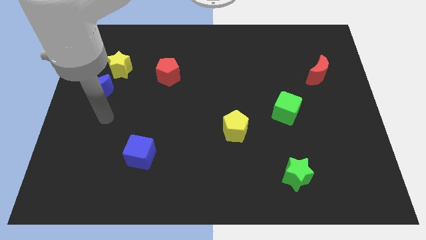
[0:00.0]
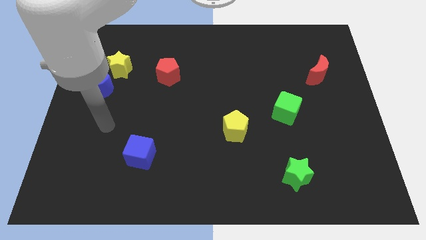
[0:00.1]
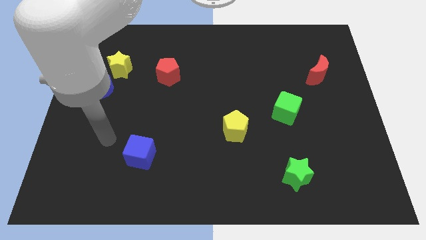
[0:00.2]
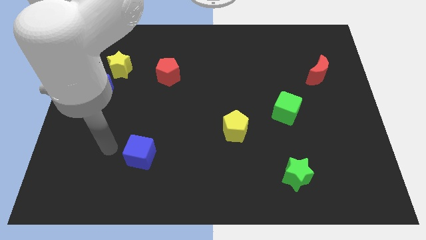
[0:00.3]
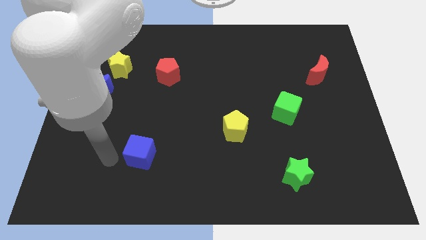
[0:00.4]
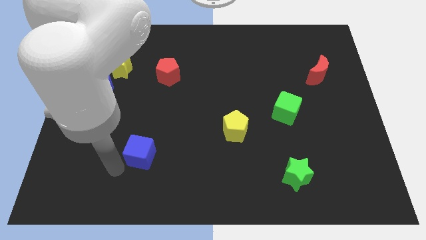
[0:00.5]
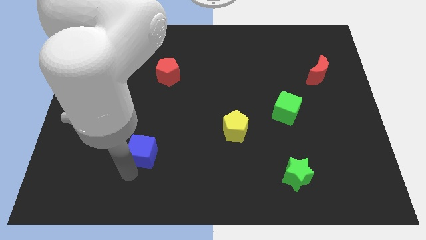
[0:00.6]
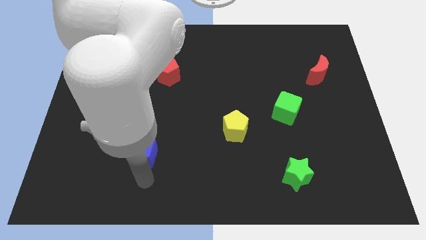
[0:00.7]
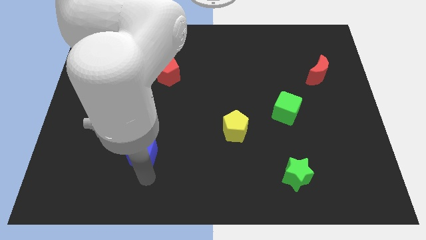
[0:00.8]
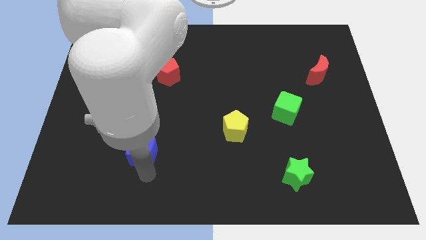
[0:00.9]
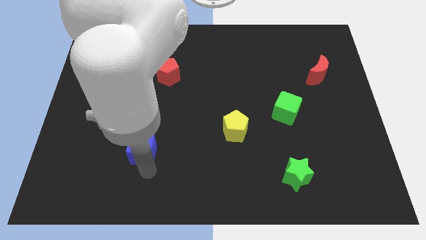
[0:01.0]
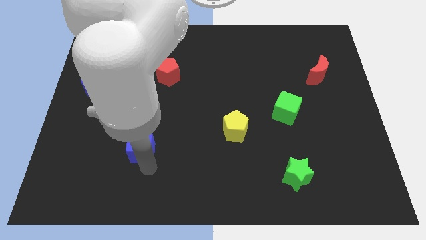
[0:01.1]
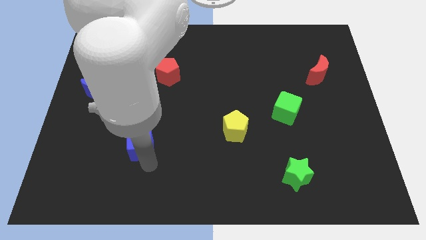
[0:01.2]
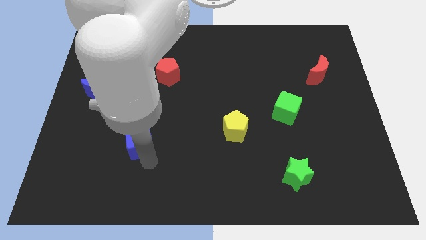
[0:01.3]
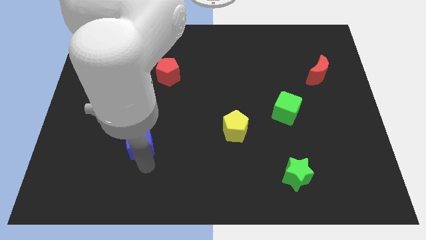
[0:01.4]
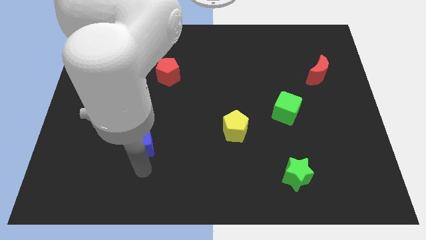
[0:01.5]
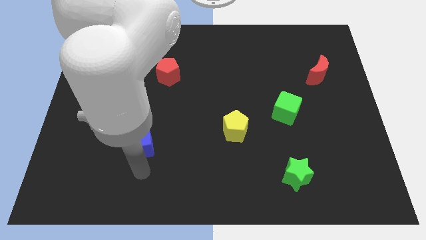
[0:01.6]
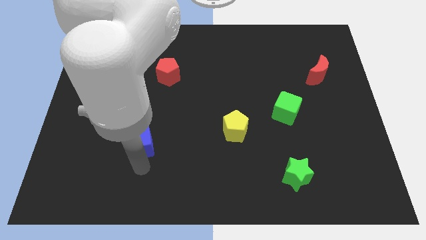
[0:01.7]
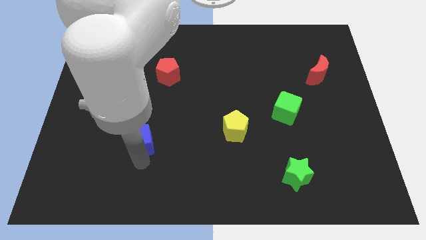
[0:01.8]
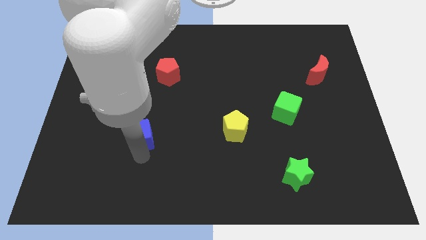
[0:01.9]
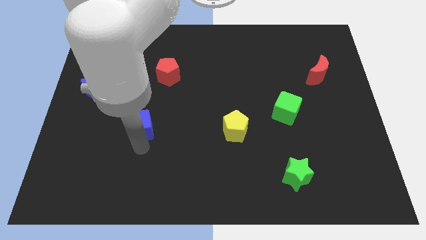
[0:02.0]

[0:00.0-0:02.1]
slide the blue cube up somewhat

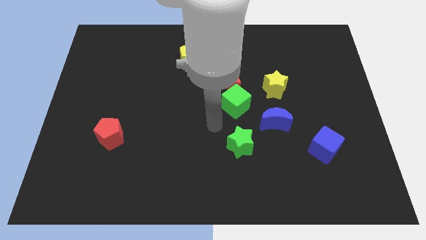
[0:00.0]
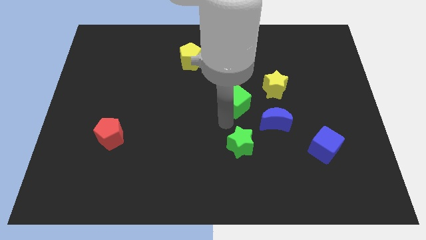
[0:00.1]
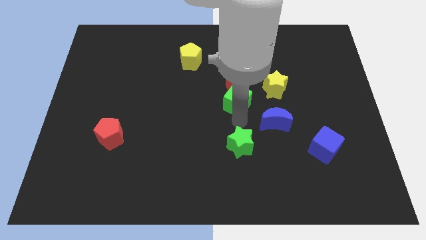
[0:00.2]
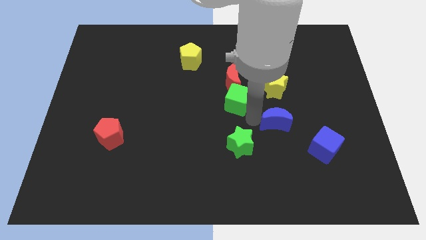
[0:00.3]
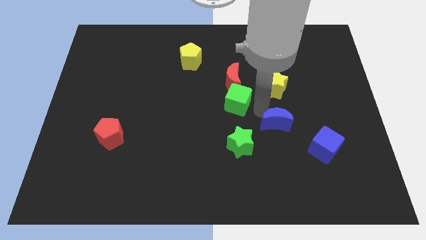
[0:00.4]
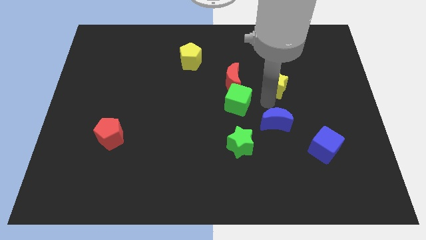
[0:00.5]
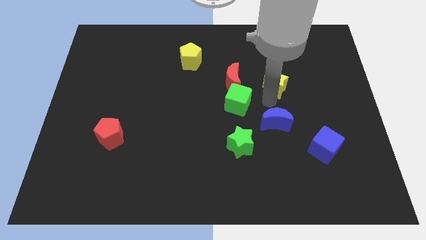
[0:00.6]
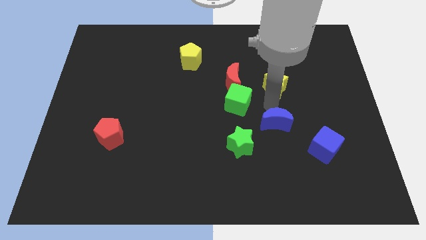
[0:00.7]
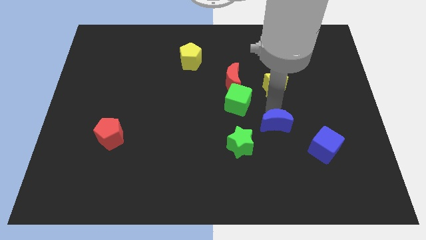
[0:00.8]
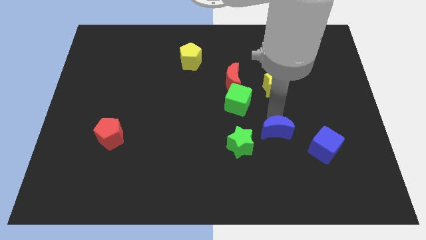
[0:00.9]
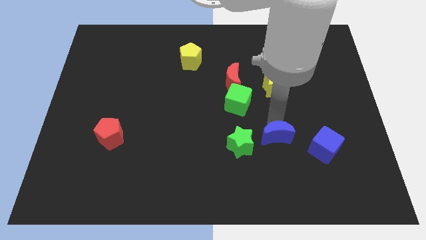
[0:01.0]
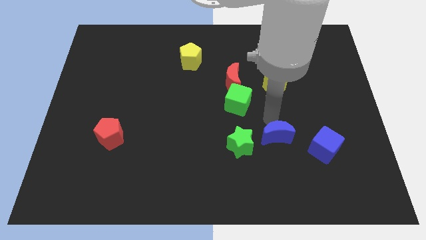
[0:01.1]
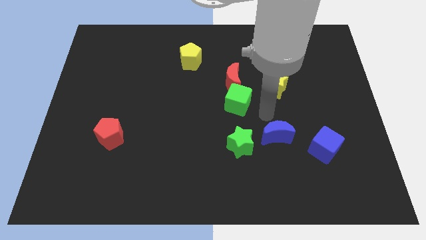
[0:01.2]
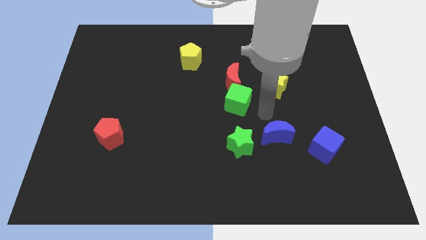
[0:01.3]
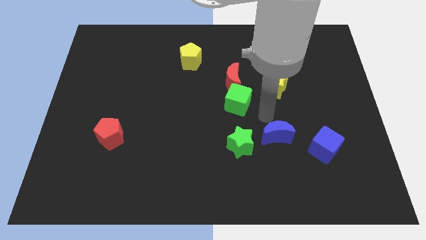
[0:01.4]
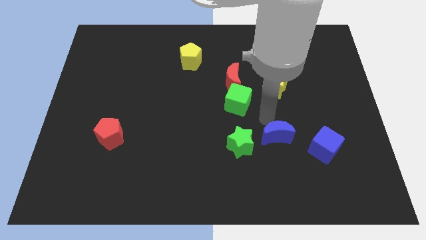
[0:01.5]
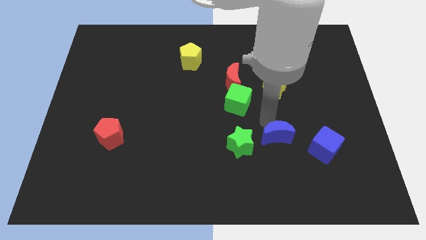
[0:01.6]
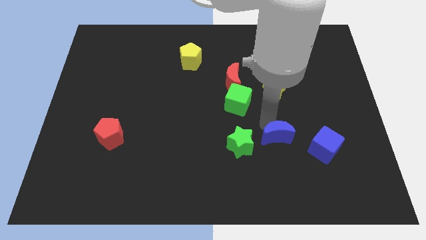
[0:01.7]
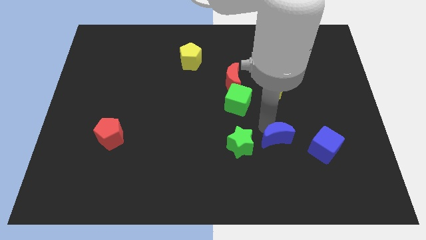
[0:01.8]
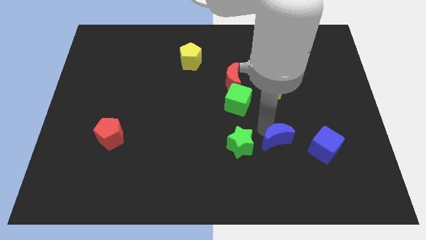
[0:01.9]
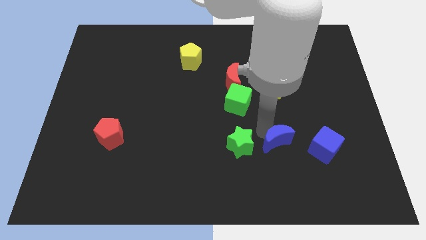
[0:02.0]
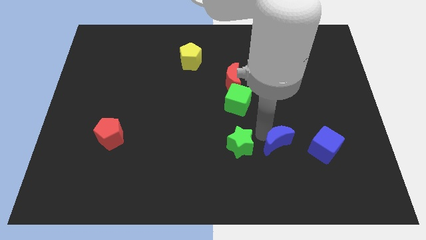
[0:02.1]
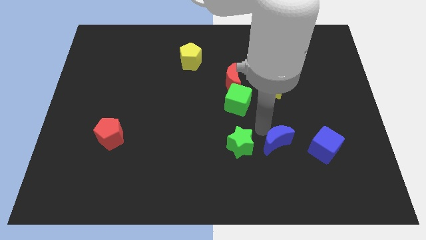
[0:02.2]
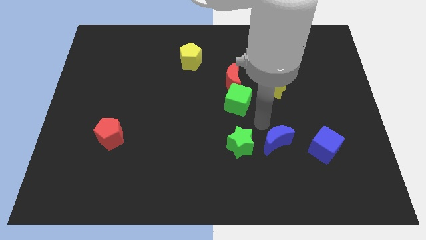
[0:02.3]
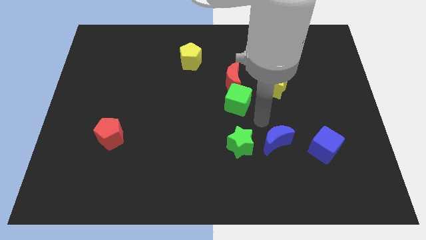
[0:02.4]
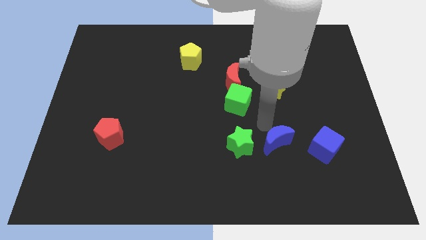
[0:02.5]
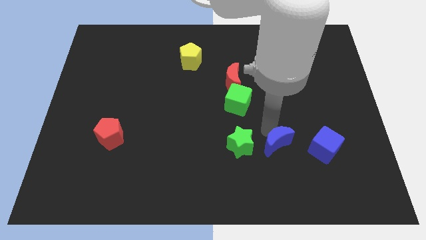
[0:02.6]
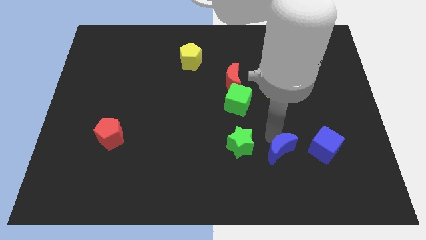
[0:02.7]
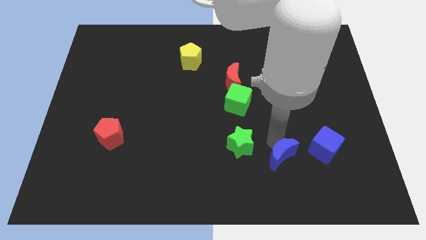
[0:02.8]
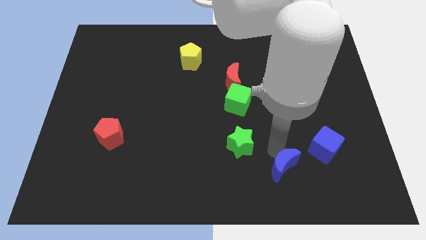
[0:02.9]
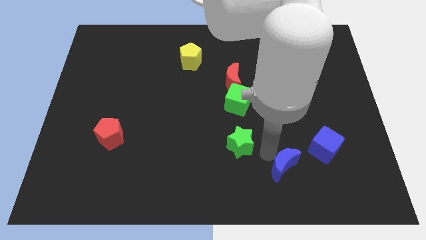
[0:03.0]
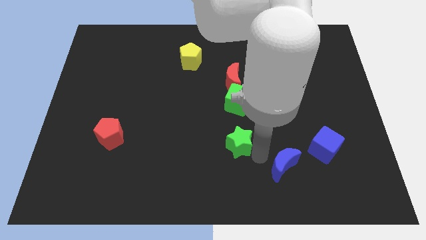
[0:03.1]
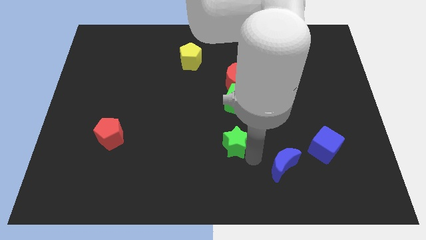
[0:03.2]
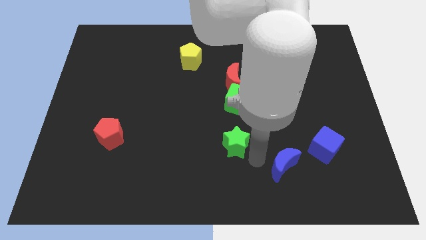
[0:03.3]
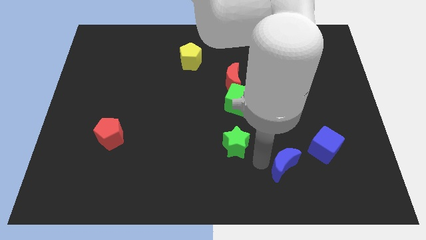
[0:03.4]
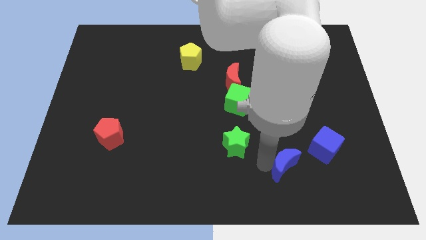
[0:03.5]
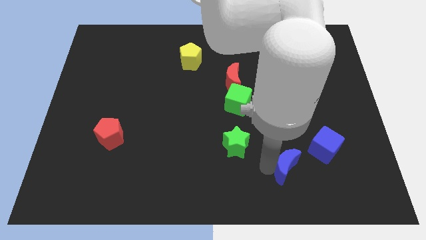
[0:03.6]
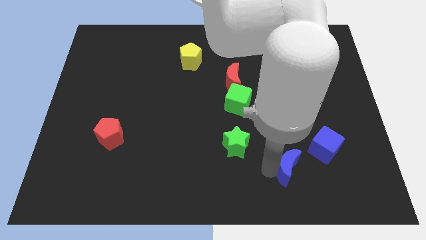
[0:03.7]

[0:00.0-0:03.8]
slightly push the blue moon downwards and to the right

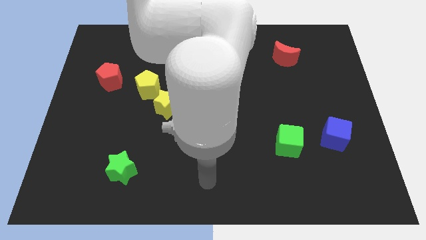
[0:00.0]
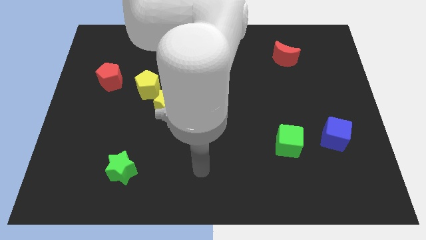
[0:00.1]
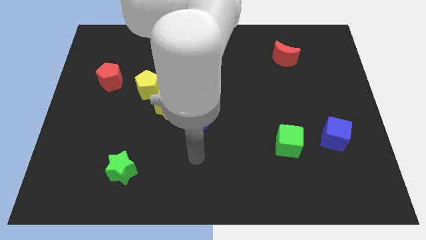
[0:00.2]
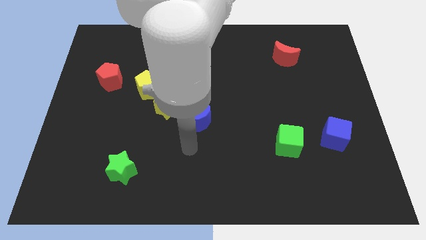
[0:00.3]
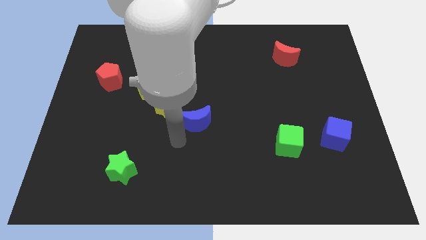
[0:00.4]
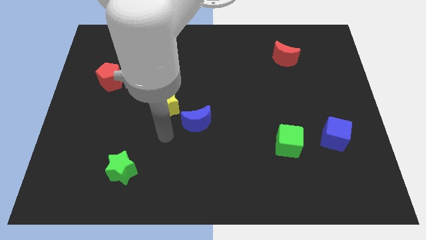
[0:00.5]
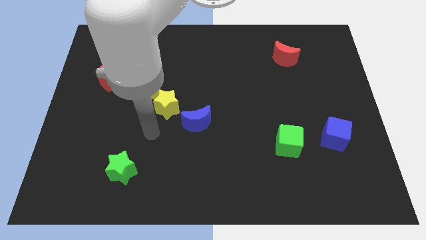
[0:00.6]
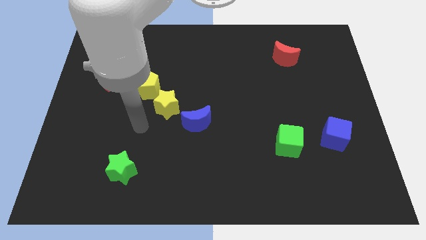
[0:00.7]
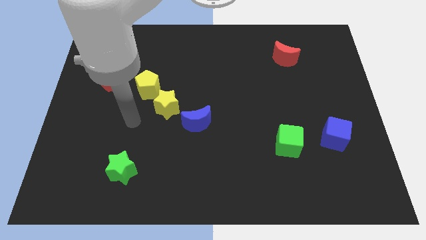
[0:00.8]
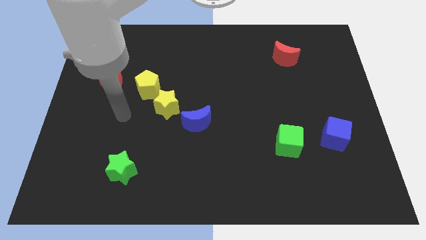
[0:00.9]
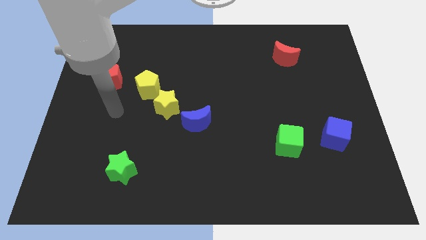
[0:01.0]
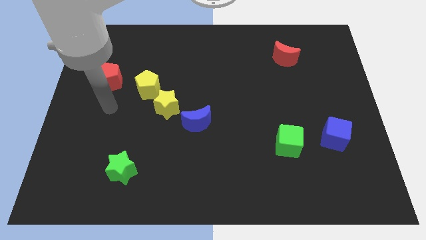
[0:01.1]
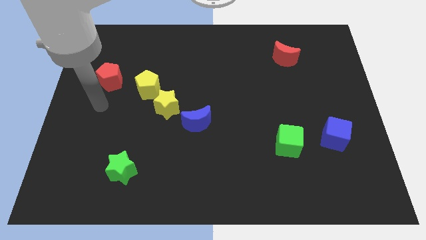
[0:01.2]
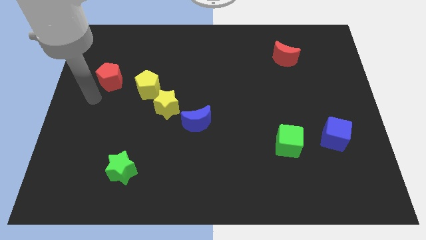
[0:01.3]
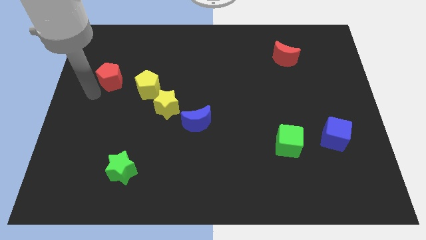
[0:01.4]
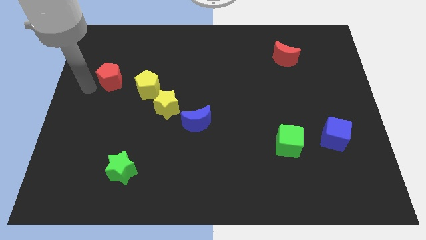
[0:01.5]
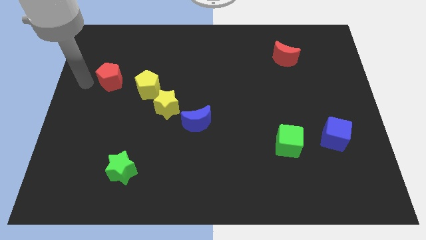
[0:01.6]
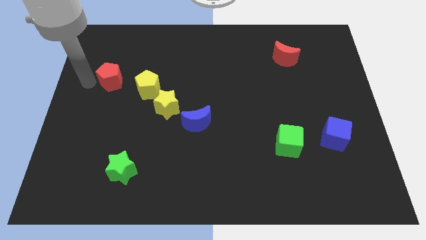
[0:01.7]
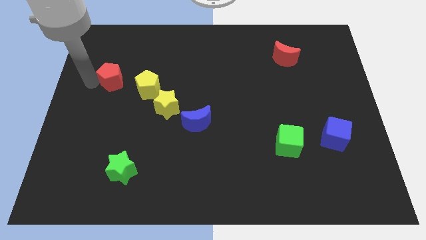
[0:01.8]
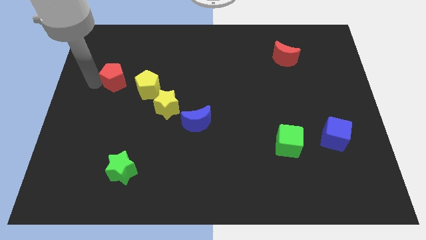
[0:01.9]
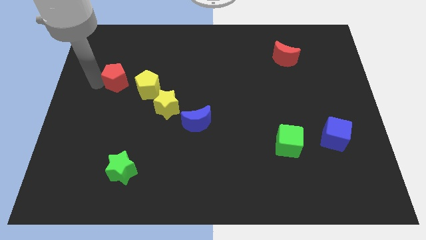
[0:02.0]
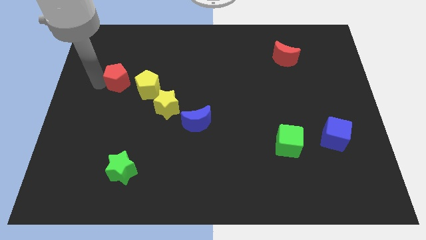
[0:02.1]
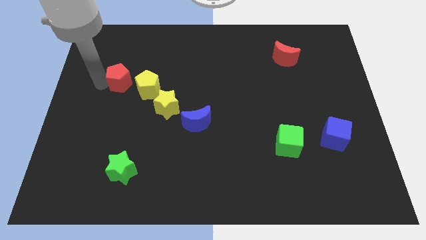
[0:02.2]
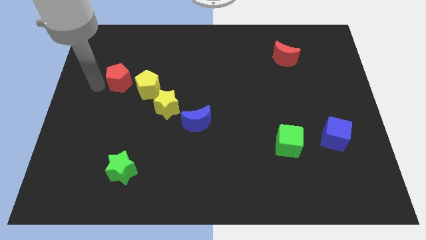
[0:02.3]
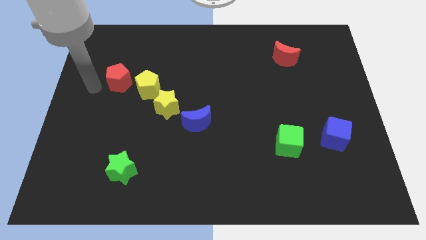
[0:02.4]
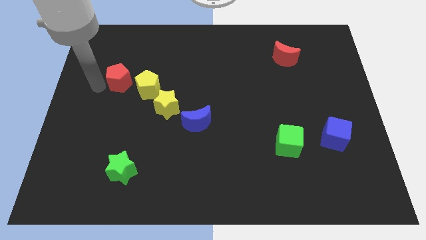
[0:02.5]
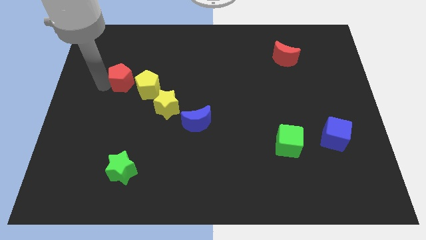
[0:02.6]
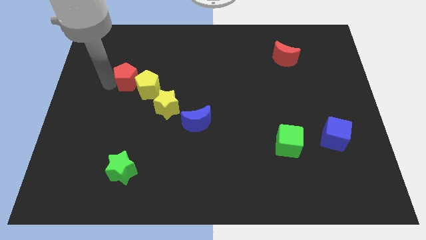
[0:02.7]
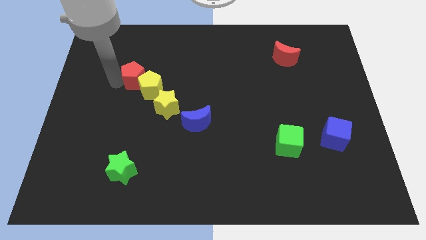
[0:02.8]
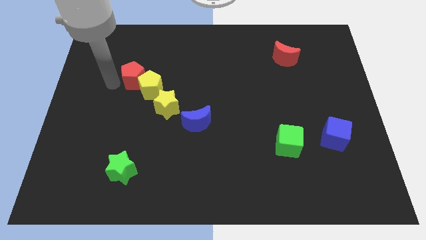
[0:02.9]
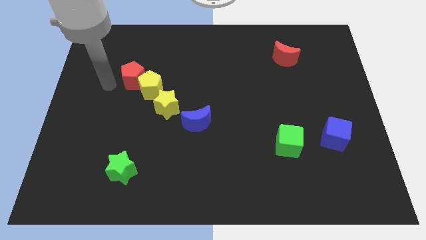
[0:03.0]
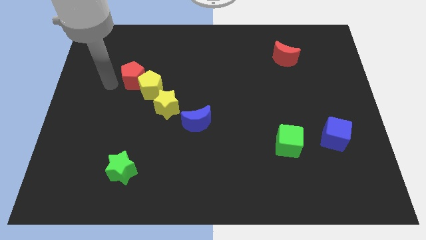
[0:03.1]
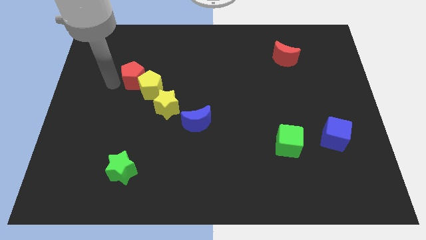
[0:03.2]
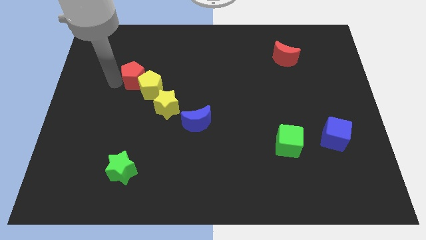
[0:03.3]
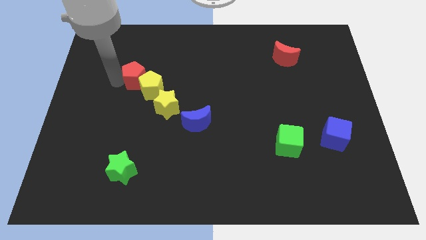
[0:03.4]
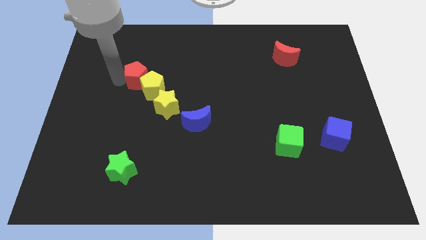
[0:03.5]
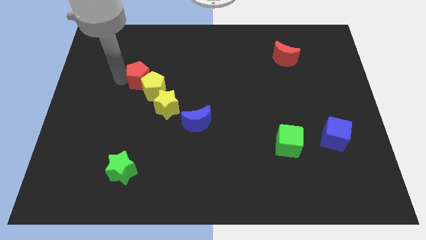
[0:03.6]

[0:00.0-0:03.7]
slightly move the red pentagon to the right
